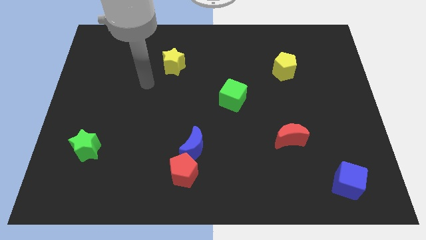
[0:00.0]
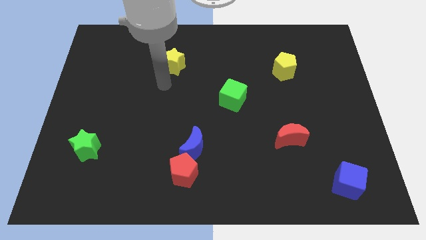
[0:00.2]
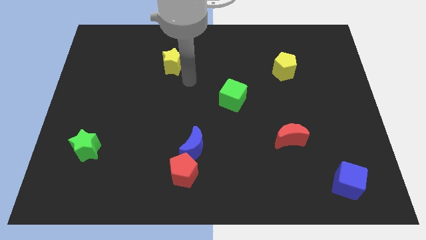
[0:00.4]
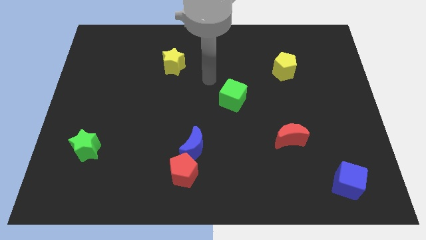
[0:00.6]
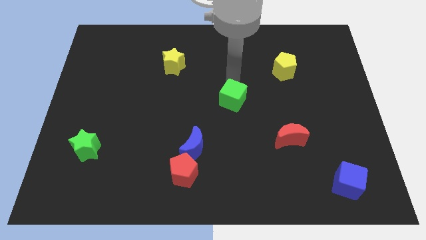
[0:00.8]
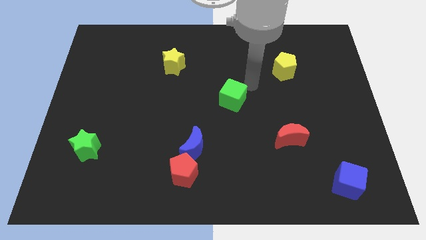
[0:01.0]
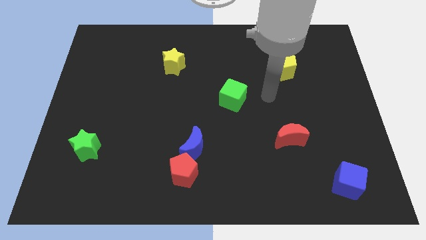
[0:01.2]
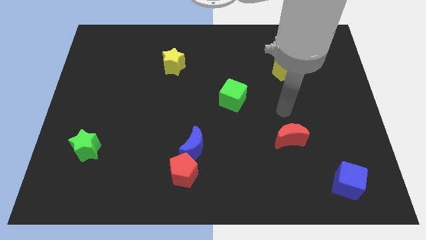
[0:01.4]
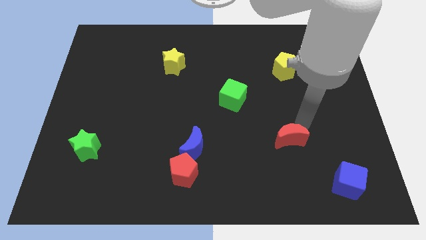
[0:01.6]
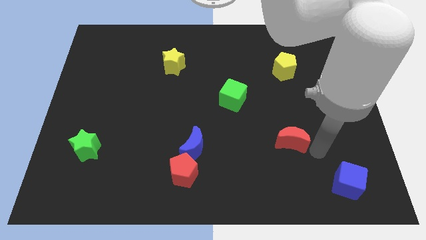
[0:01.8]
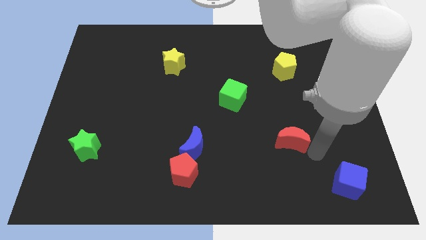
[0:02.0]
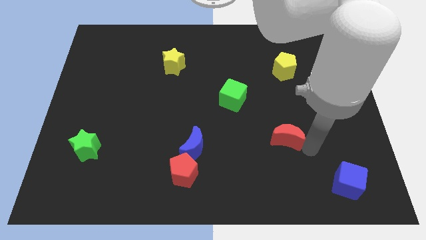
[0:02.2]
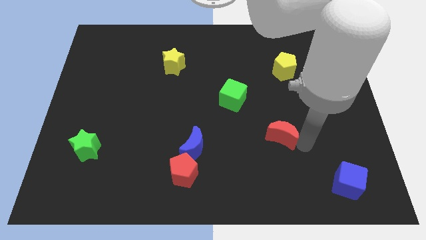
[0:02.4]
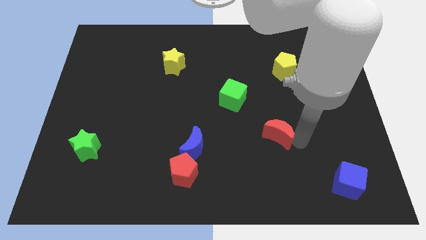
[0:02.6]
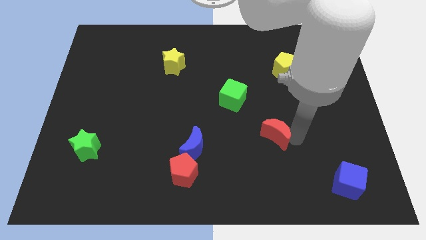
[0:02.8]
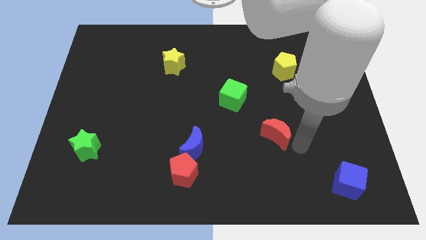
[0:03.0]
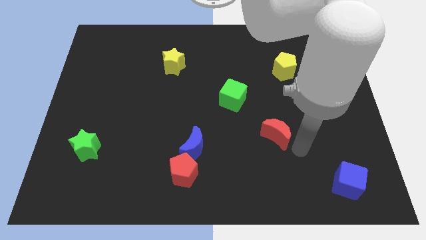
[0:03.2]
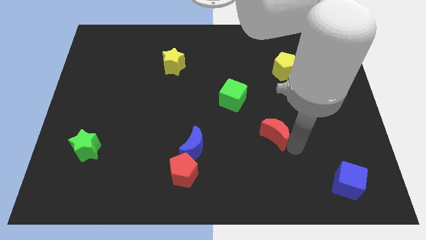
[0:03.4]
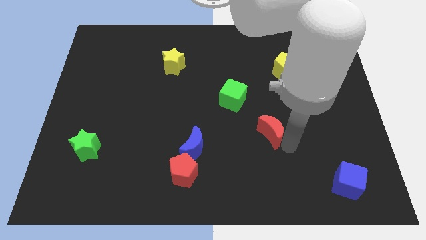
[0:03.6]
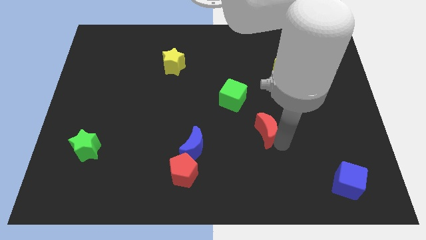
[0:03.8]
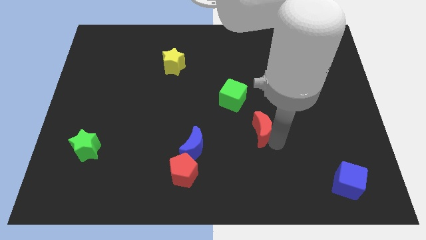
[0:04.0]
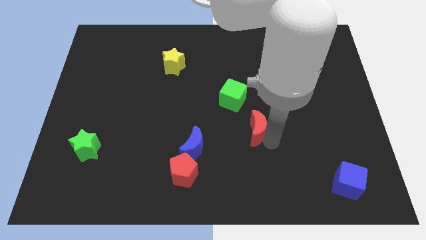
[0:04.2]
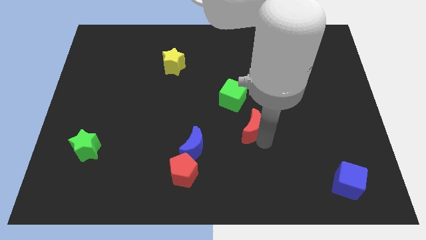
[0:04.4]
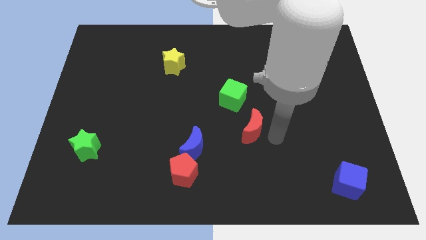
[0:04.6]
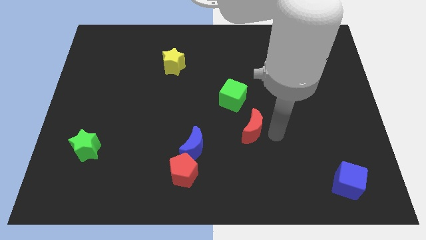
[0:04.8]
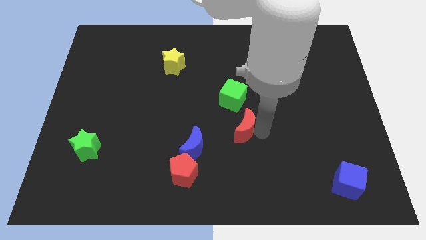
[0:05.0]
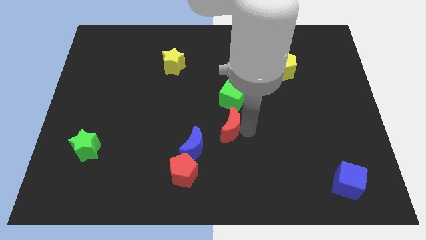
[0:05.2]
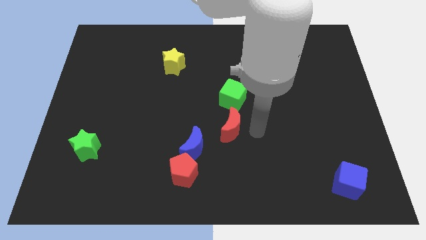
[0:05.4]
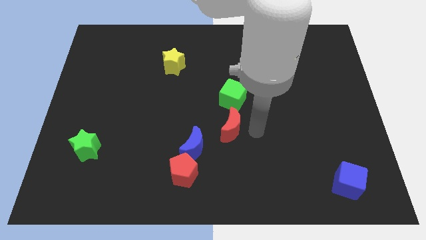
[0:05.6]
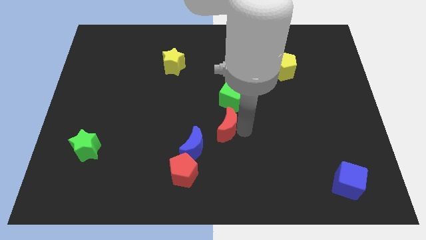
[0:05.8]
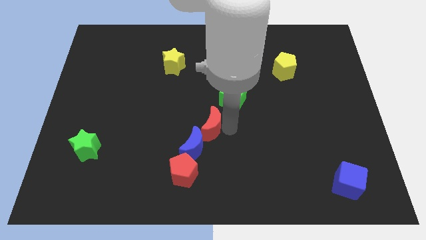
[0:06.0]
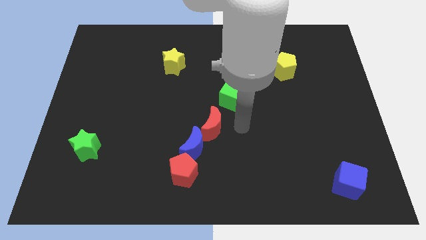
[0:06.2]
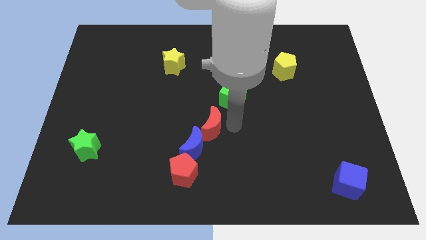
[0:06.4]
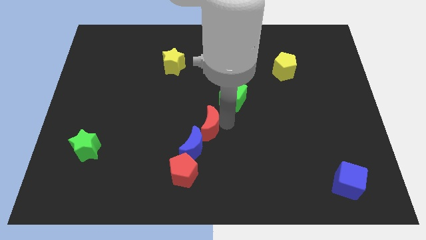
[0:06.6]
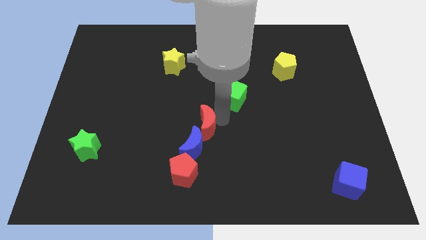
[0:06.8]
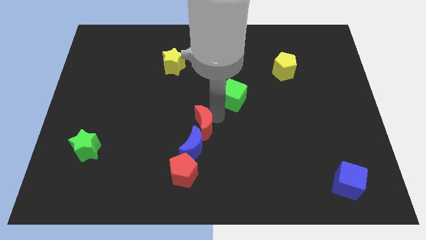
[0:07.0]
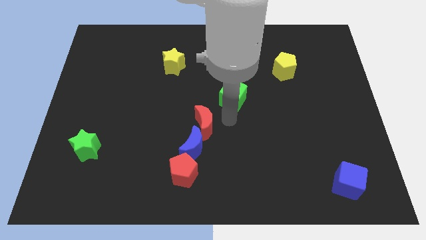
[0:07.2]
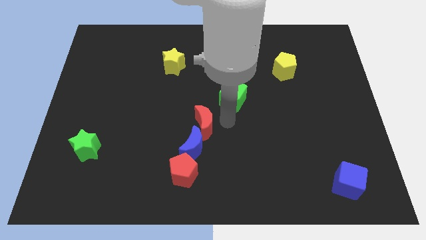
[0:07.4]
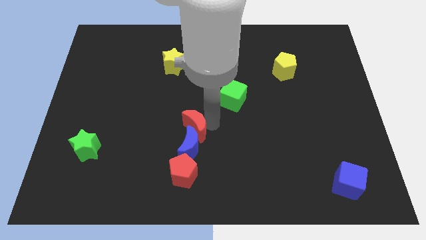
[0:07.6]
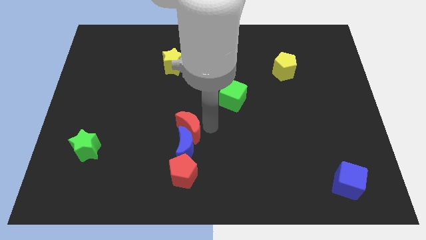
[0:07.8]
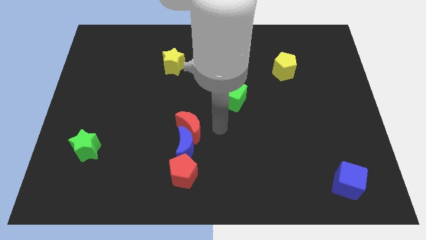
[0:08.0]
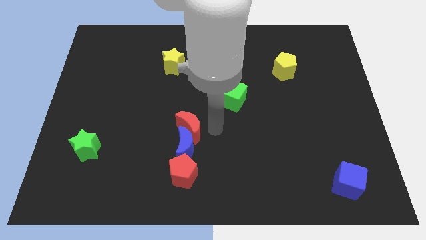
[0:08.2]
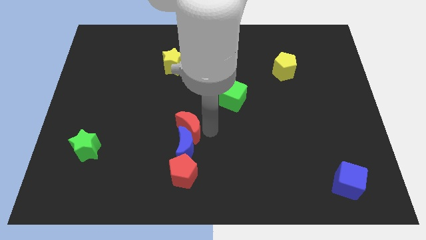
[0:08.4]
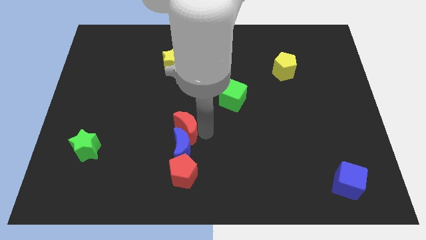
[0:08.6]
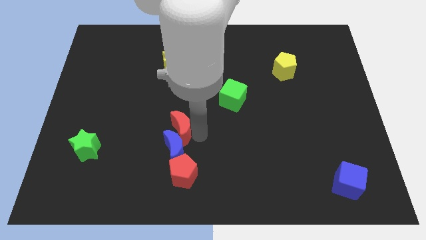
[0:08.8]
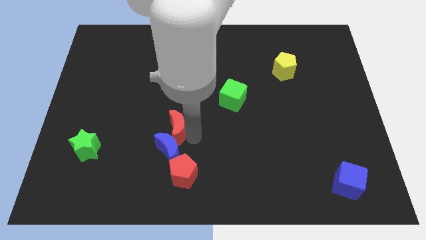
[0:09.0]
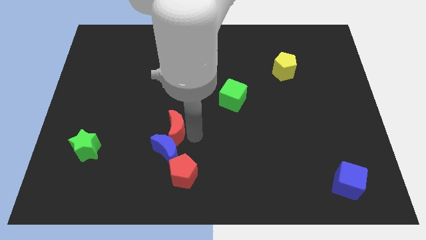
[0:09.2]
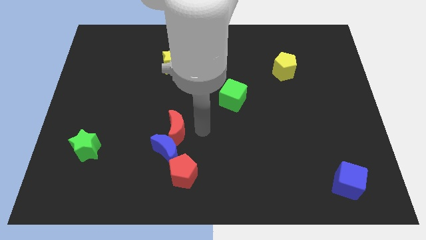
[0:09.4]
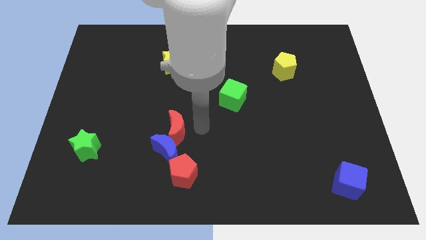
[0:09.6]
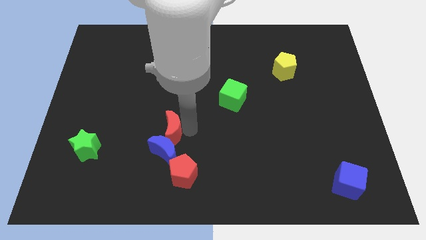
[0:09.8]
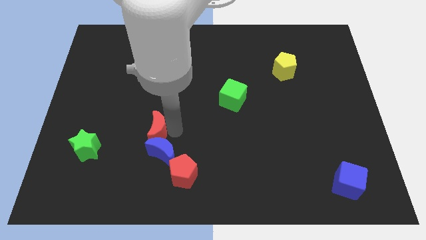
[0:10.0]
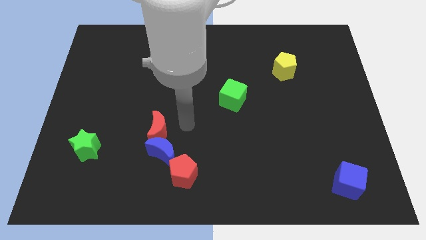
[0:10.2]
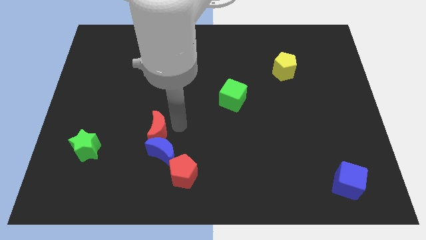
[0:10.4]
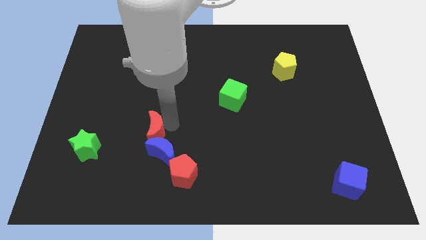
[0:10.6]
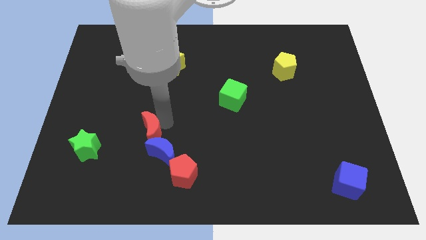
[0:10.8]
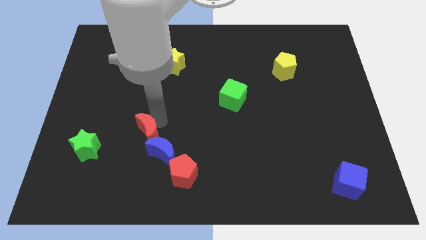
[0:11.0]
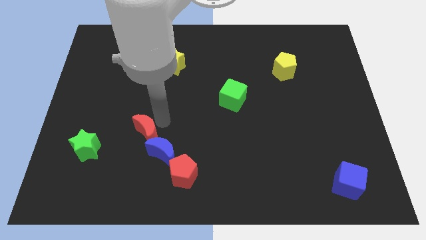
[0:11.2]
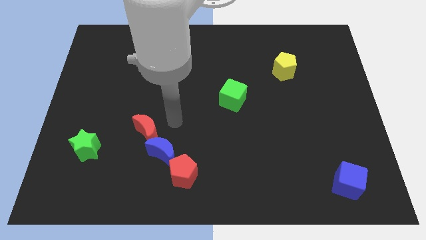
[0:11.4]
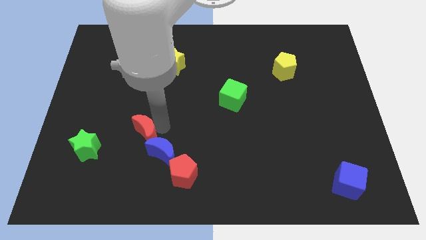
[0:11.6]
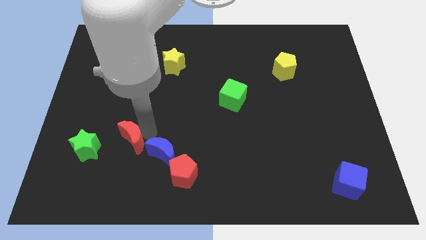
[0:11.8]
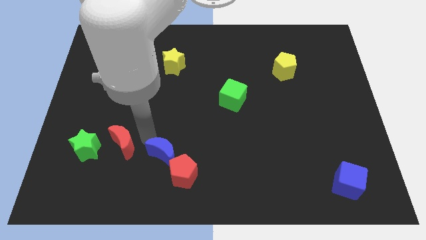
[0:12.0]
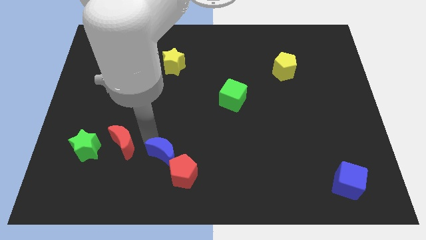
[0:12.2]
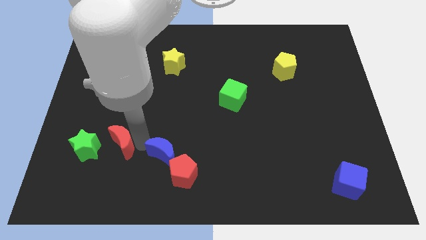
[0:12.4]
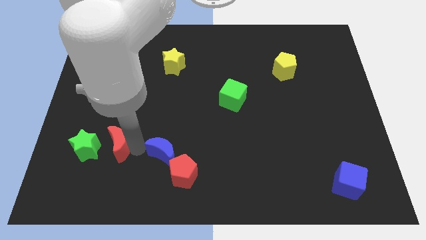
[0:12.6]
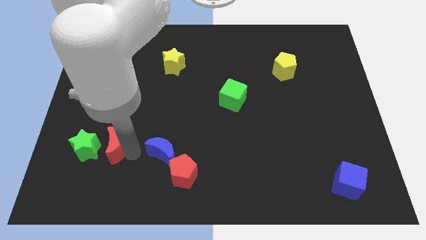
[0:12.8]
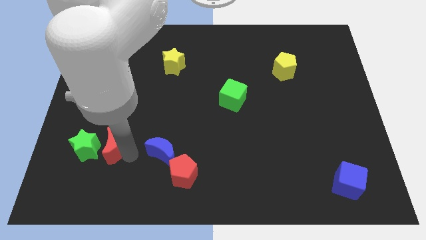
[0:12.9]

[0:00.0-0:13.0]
put the red moon to the green star

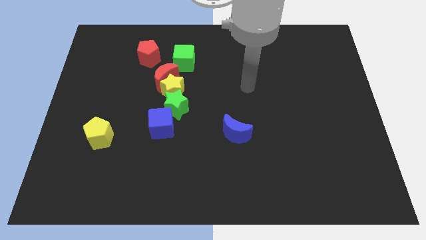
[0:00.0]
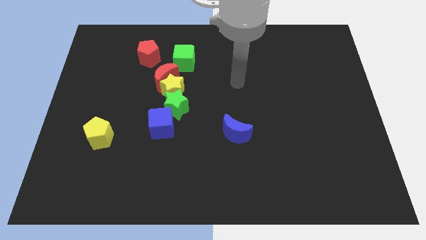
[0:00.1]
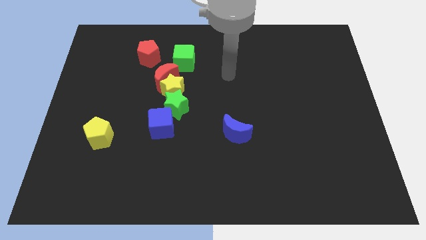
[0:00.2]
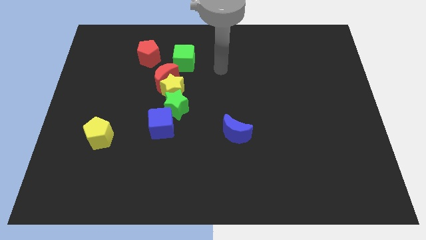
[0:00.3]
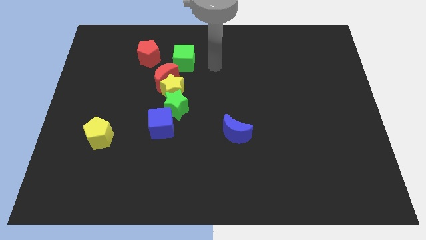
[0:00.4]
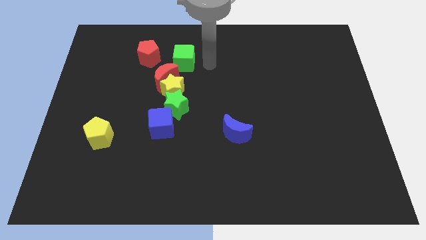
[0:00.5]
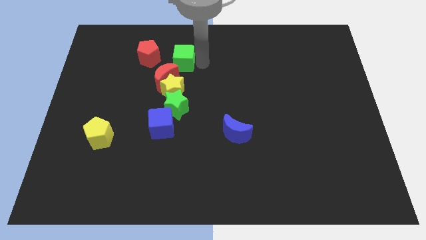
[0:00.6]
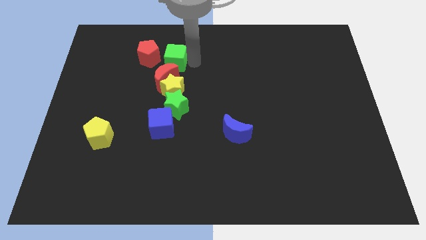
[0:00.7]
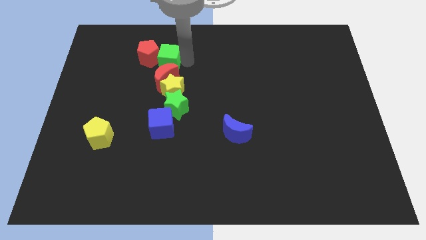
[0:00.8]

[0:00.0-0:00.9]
push the green cube close to the red pentagon
